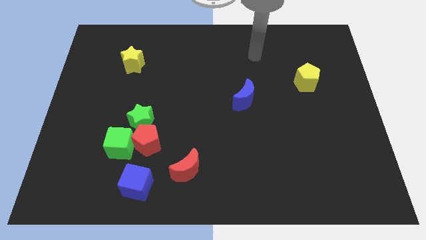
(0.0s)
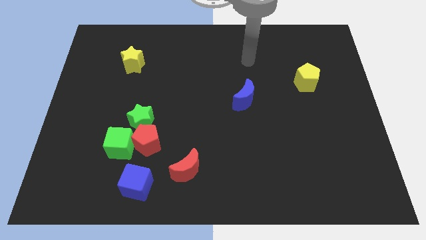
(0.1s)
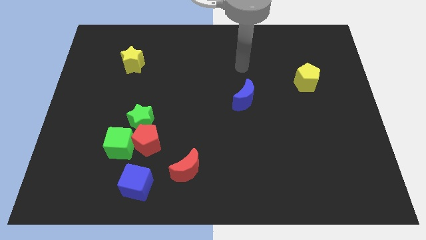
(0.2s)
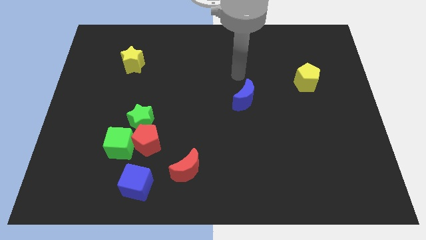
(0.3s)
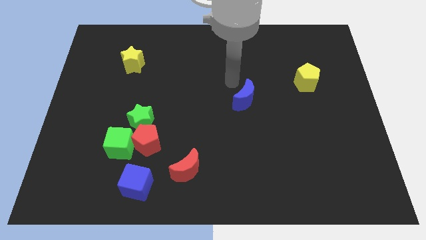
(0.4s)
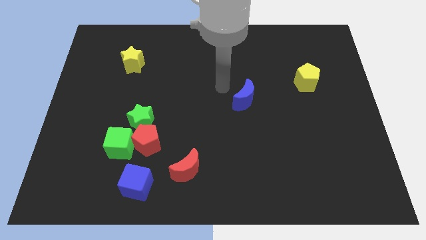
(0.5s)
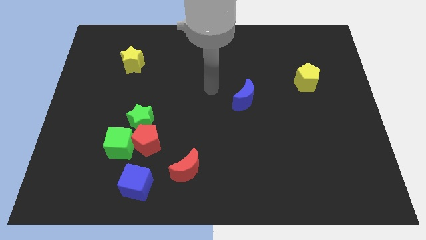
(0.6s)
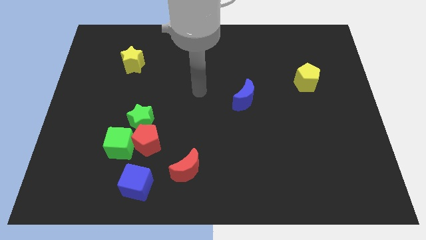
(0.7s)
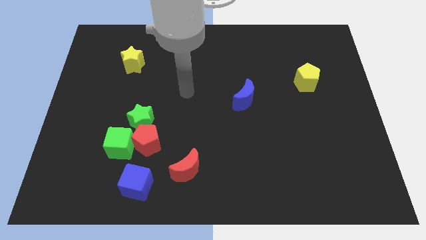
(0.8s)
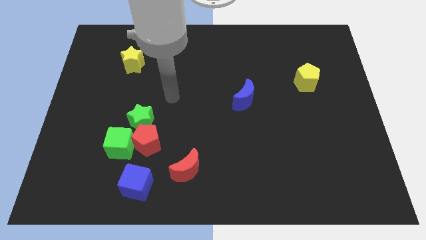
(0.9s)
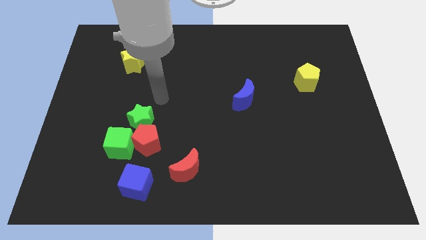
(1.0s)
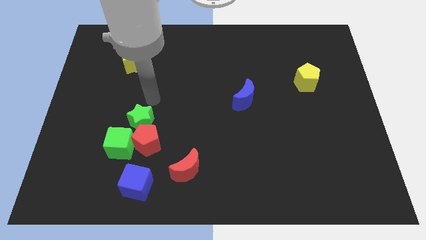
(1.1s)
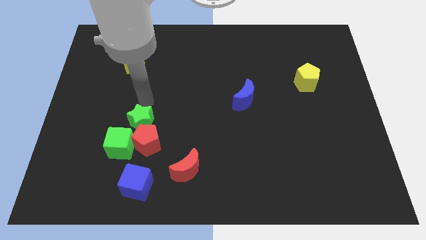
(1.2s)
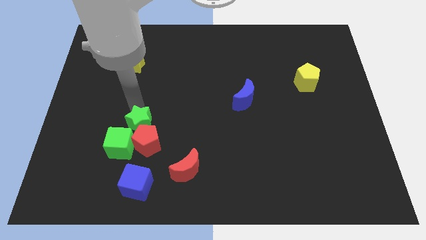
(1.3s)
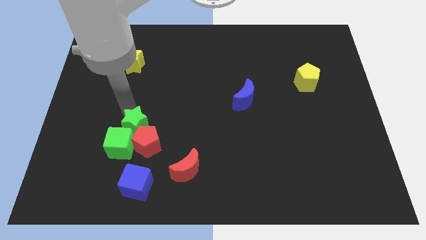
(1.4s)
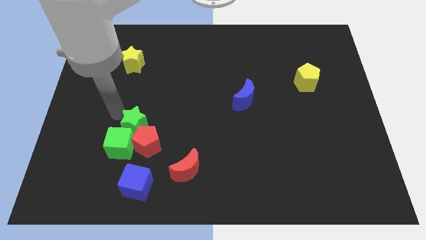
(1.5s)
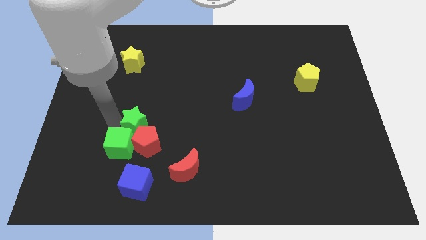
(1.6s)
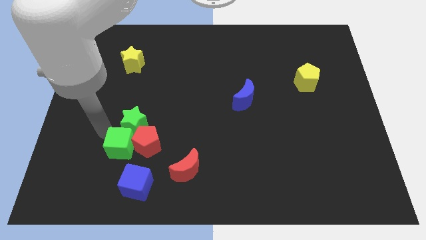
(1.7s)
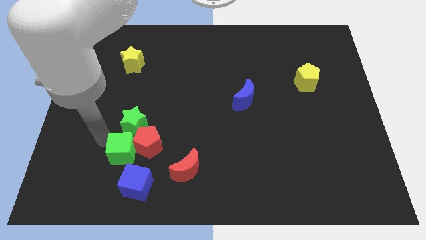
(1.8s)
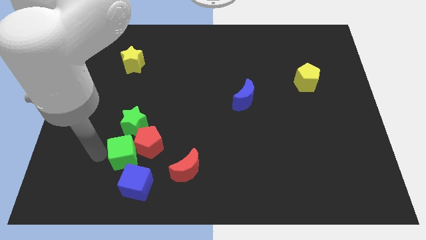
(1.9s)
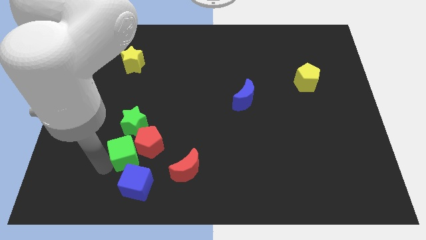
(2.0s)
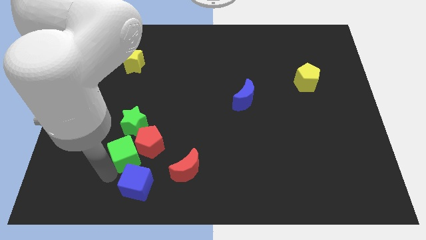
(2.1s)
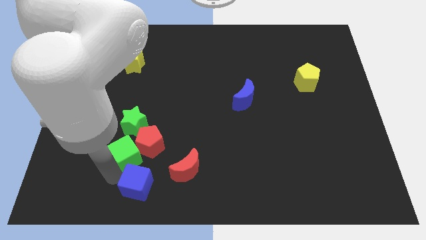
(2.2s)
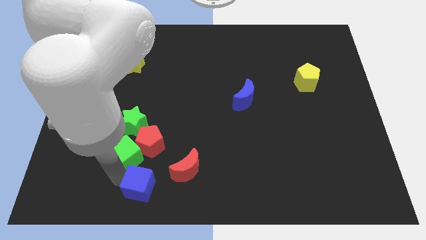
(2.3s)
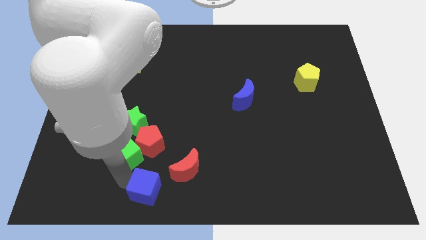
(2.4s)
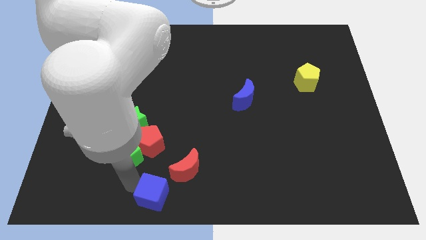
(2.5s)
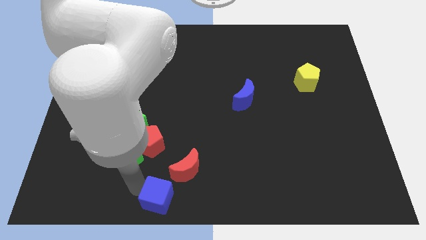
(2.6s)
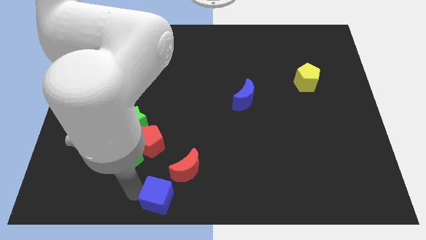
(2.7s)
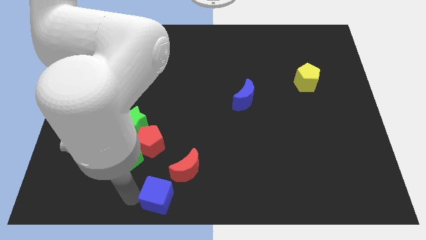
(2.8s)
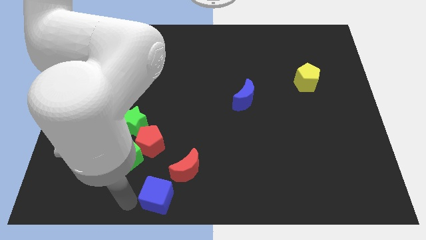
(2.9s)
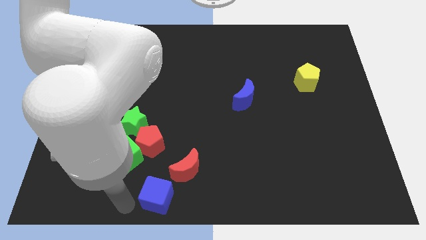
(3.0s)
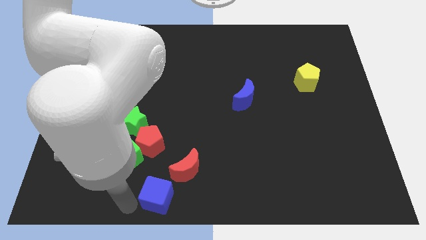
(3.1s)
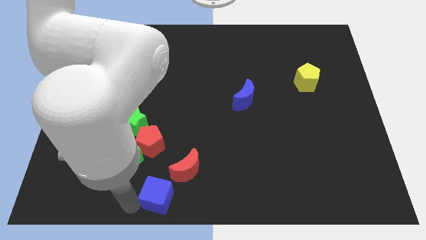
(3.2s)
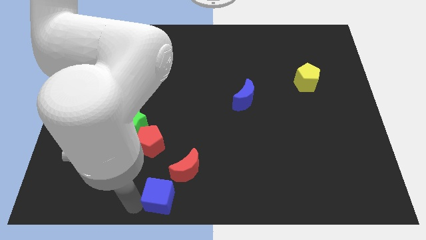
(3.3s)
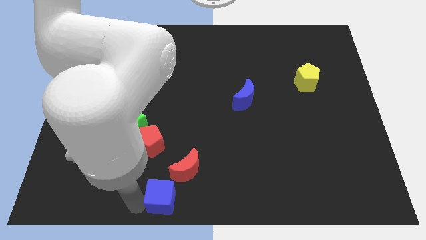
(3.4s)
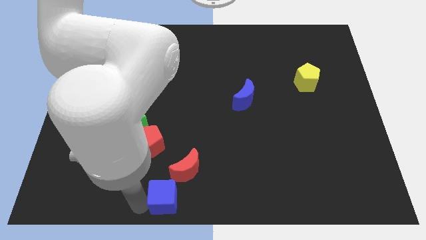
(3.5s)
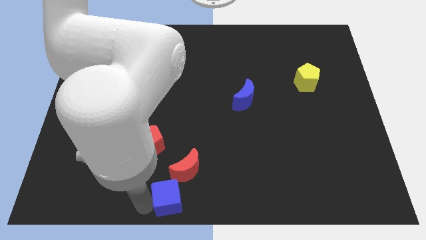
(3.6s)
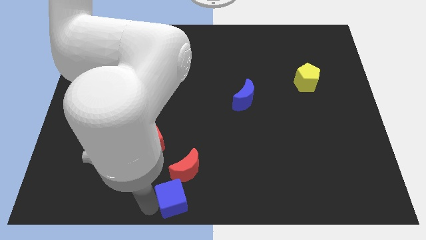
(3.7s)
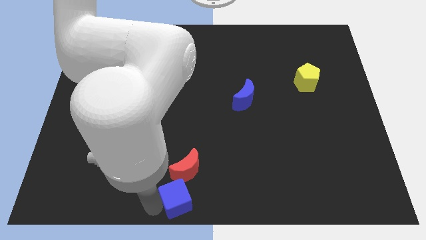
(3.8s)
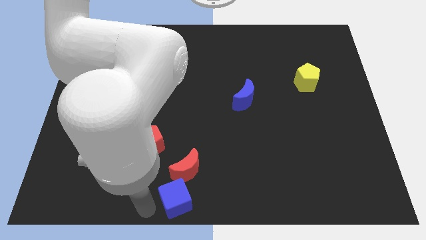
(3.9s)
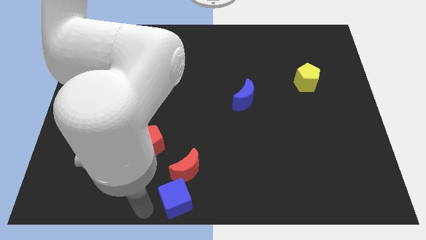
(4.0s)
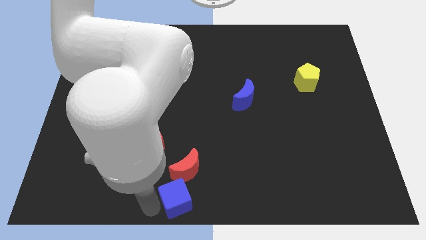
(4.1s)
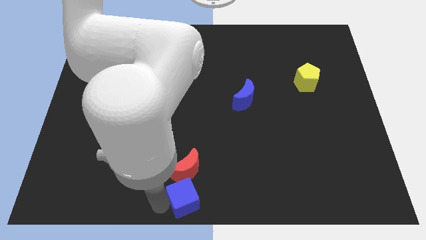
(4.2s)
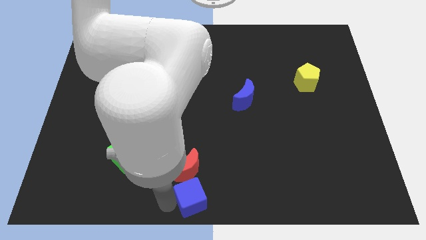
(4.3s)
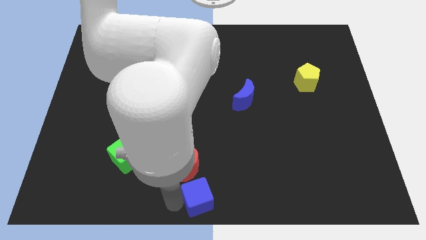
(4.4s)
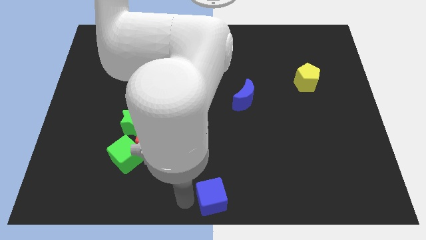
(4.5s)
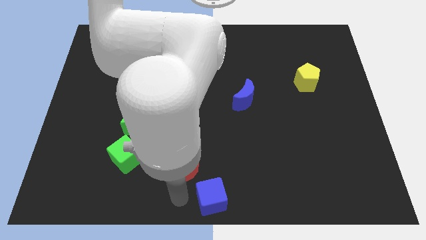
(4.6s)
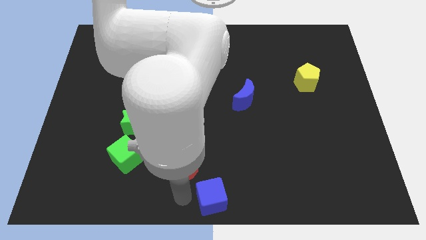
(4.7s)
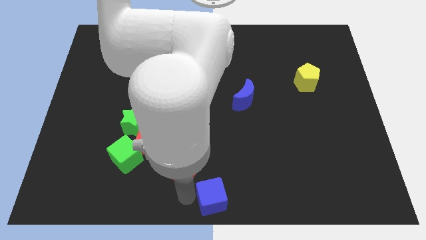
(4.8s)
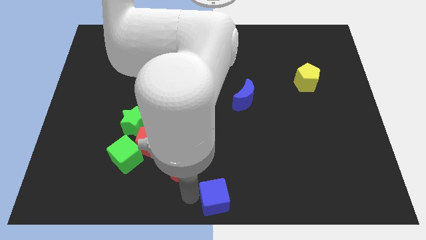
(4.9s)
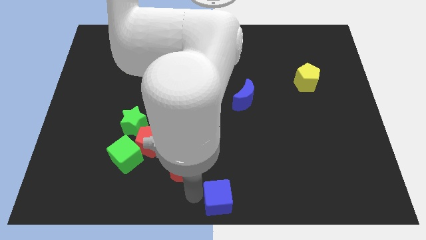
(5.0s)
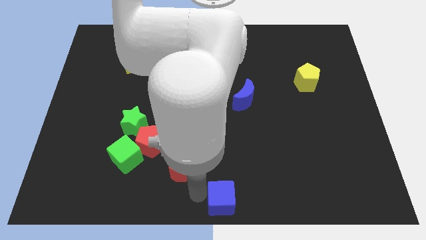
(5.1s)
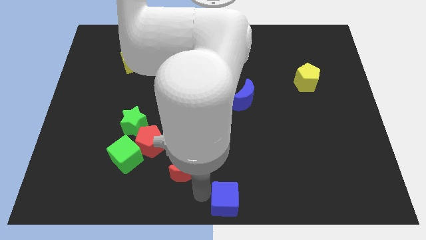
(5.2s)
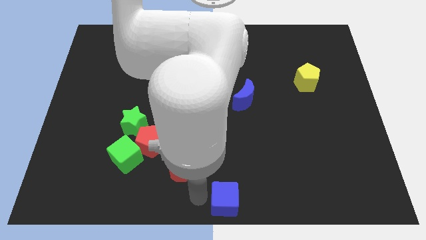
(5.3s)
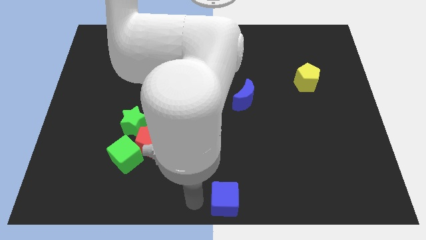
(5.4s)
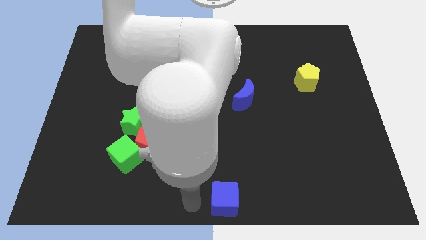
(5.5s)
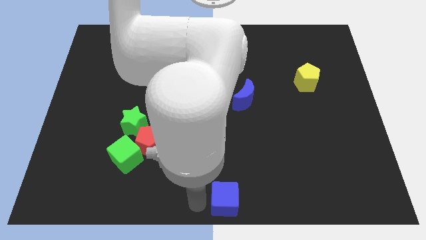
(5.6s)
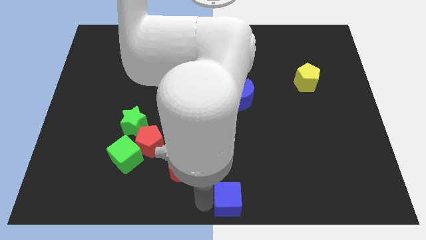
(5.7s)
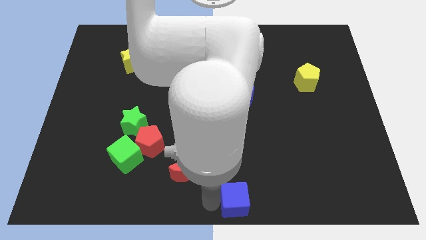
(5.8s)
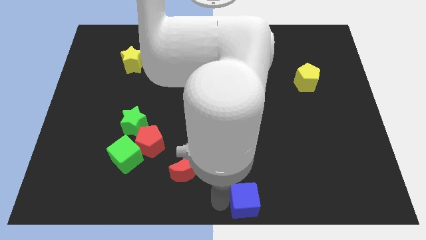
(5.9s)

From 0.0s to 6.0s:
move the blue cube right

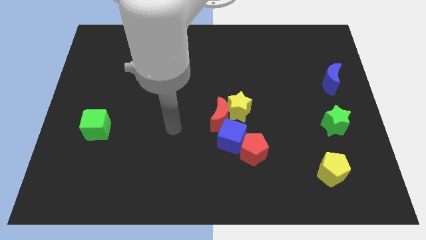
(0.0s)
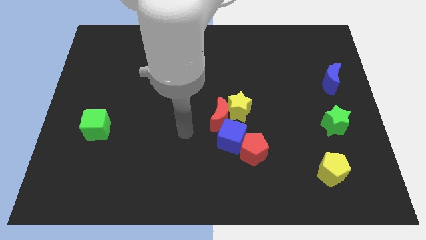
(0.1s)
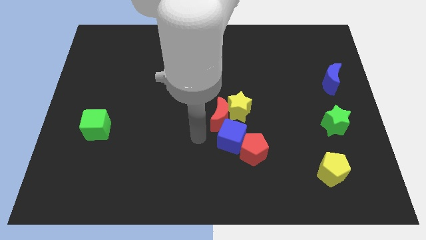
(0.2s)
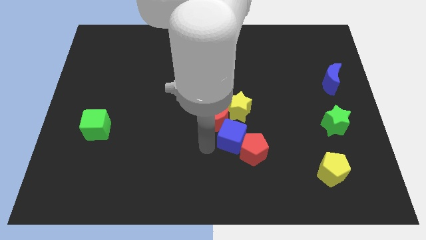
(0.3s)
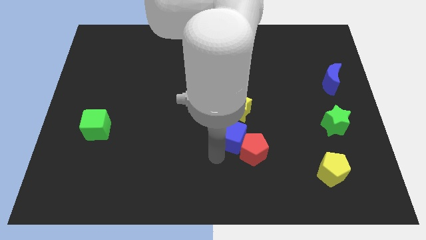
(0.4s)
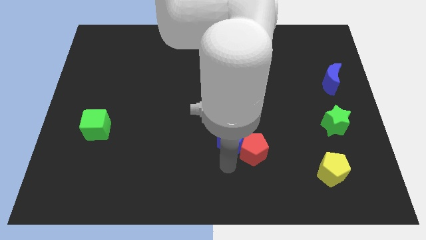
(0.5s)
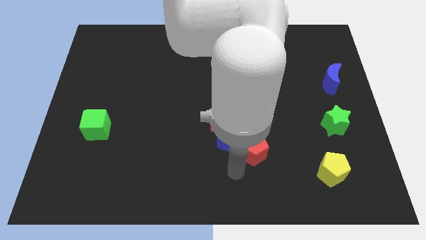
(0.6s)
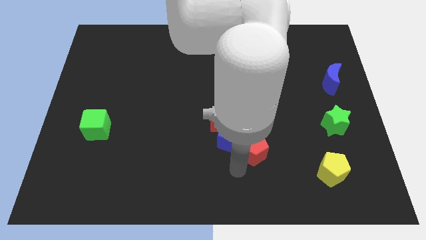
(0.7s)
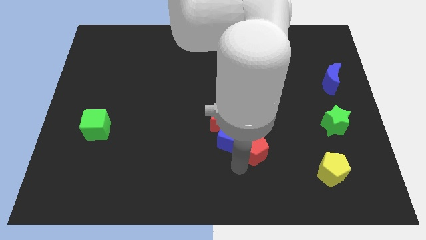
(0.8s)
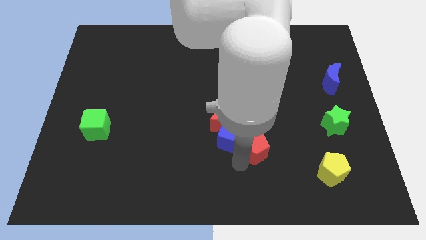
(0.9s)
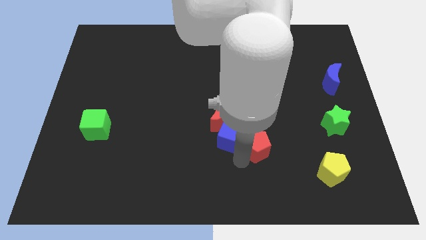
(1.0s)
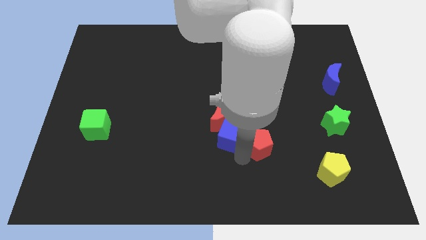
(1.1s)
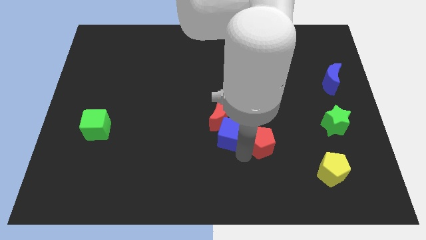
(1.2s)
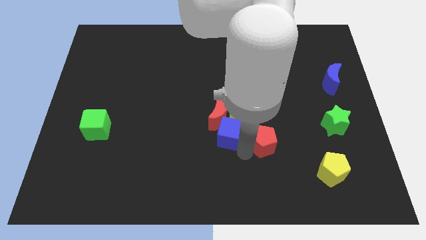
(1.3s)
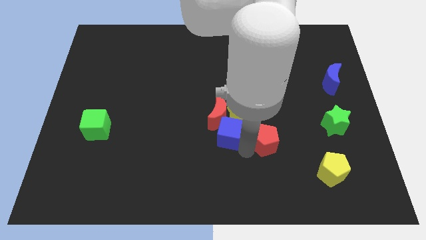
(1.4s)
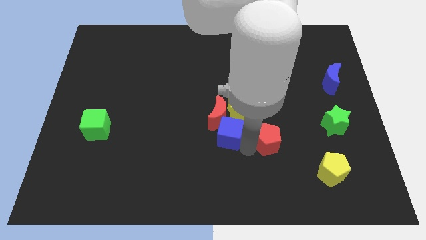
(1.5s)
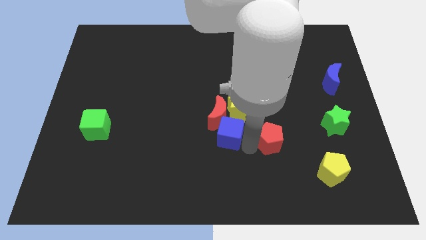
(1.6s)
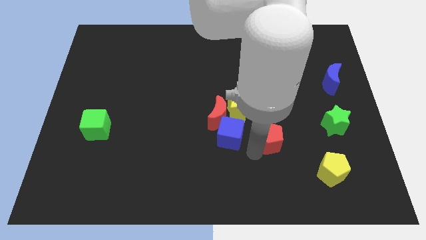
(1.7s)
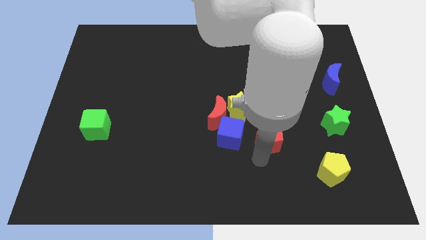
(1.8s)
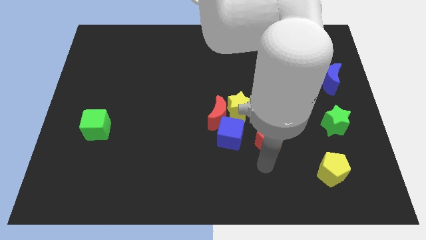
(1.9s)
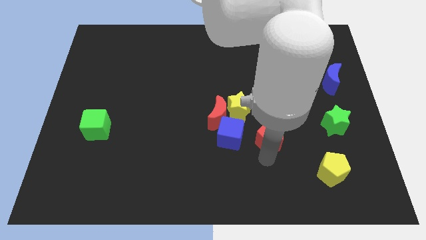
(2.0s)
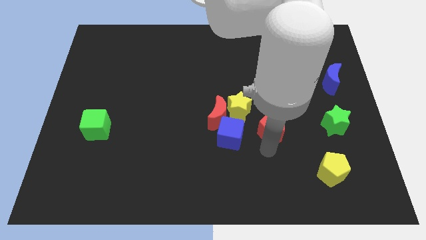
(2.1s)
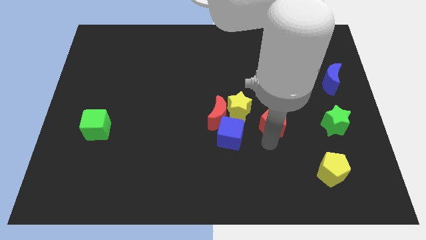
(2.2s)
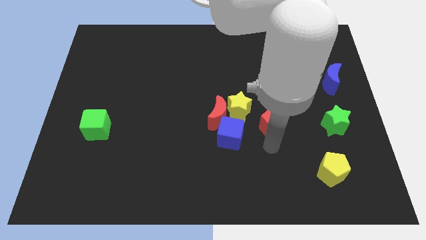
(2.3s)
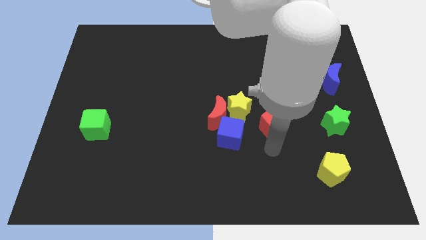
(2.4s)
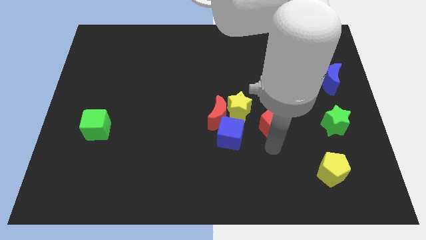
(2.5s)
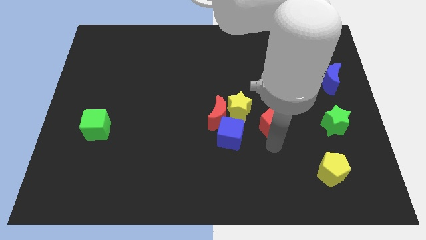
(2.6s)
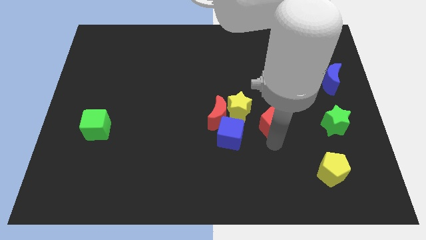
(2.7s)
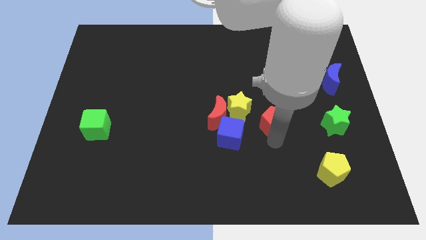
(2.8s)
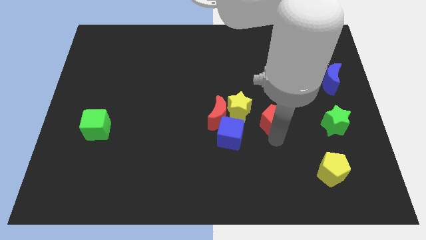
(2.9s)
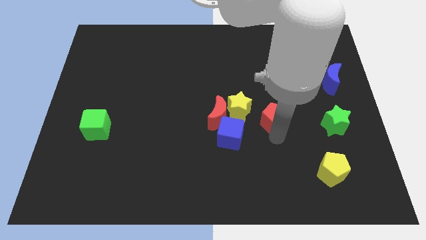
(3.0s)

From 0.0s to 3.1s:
push the red pentagon a little bit upwards
